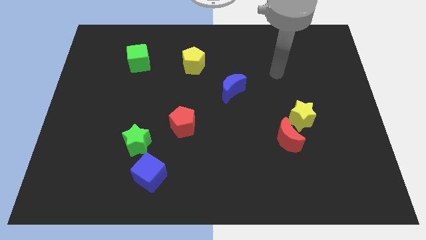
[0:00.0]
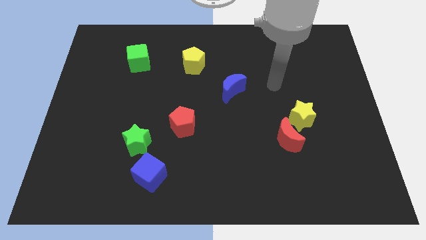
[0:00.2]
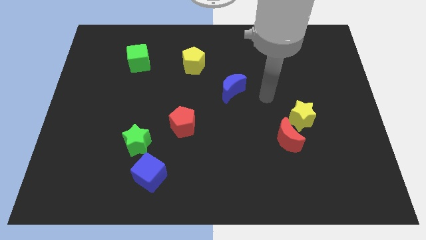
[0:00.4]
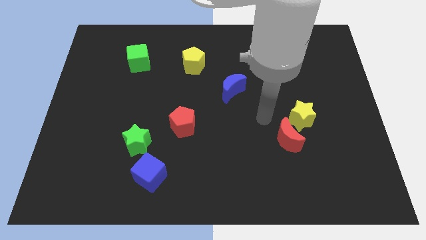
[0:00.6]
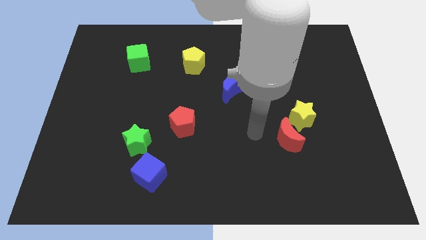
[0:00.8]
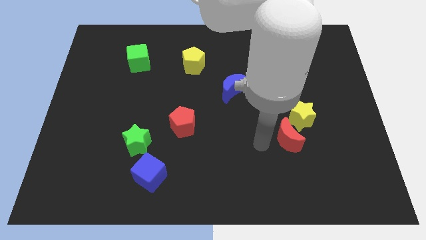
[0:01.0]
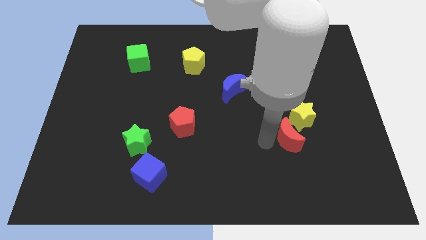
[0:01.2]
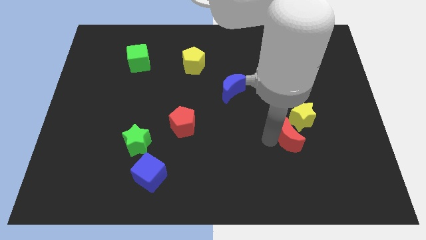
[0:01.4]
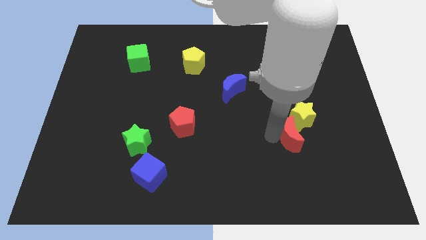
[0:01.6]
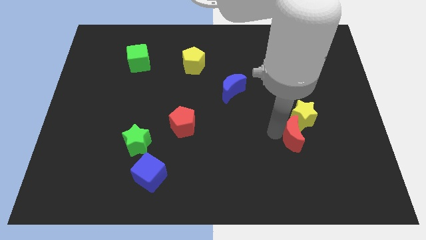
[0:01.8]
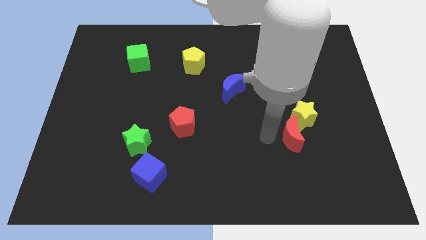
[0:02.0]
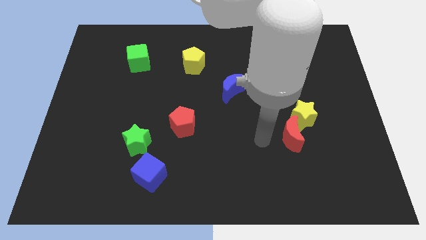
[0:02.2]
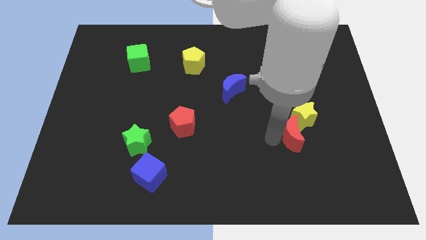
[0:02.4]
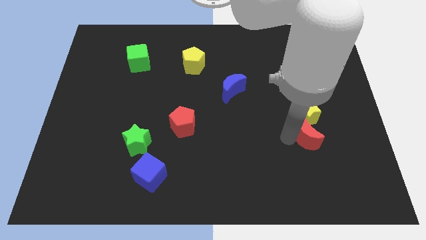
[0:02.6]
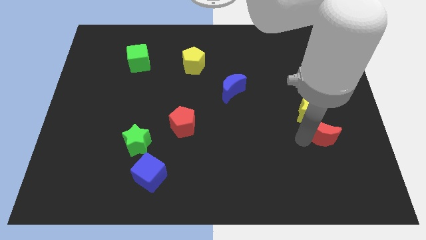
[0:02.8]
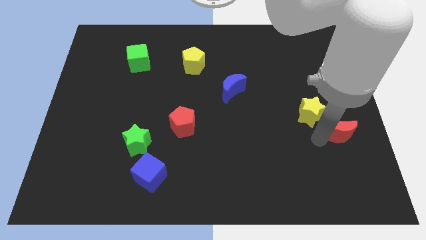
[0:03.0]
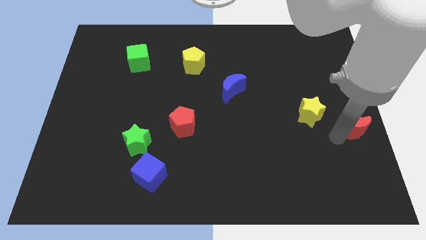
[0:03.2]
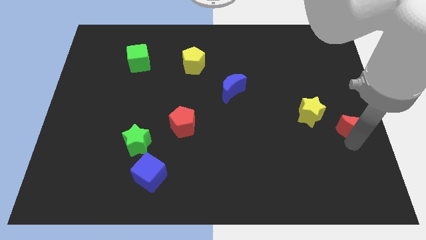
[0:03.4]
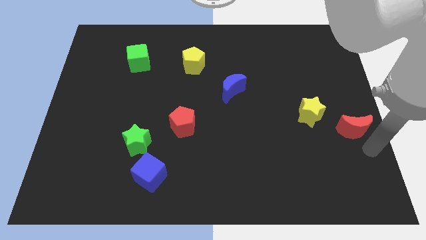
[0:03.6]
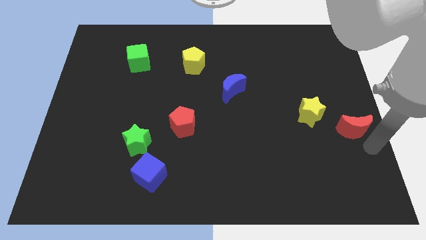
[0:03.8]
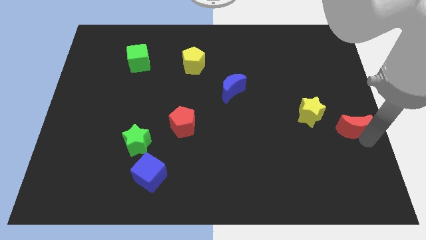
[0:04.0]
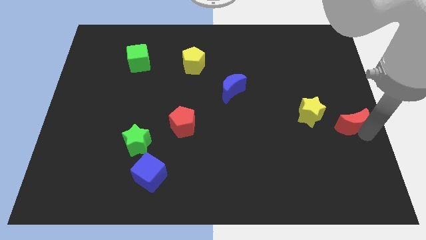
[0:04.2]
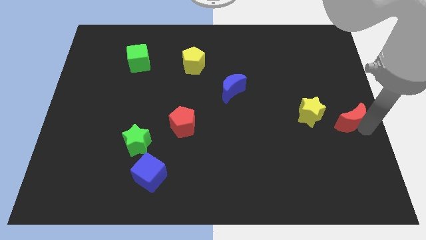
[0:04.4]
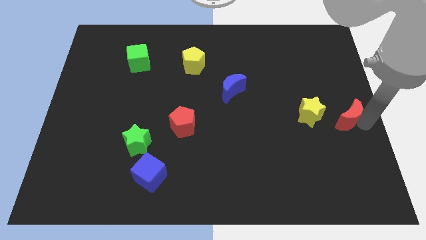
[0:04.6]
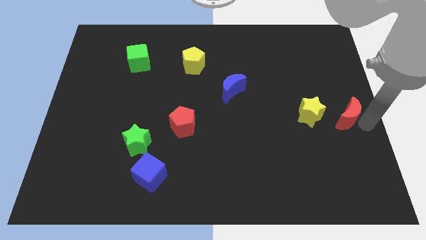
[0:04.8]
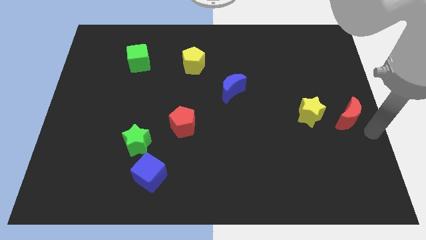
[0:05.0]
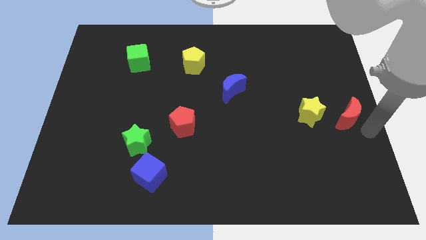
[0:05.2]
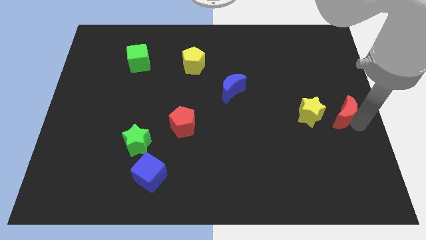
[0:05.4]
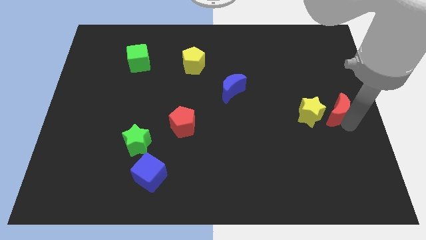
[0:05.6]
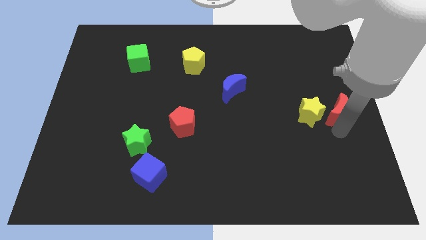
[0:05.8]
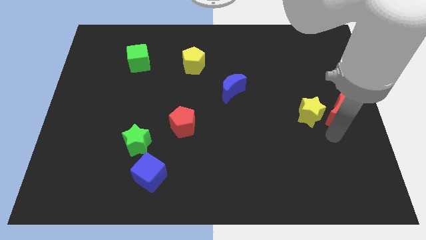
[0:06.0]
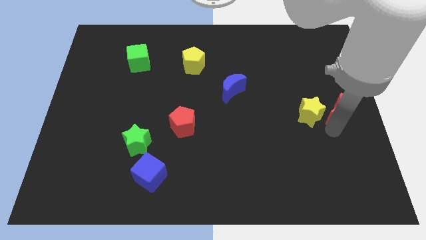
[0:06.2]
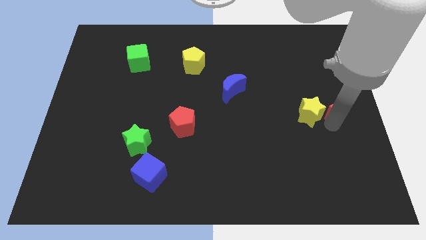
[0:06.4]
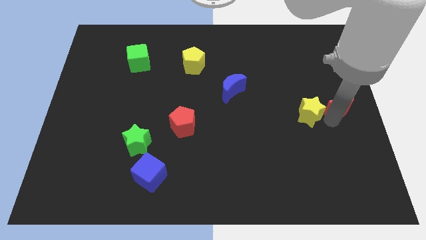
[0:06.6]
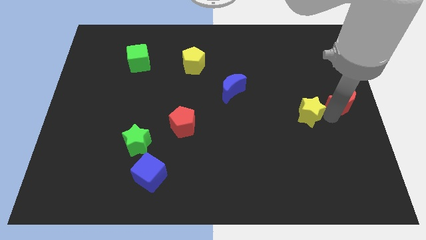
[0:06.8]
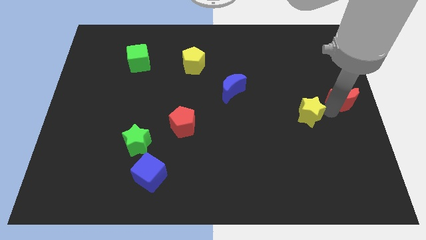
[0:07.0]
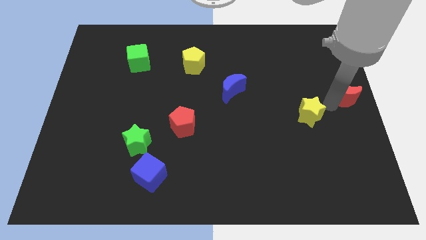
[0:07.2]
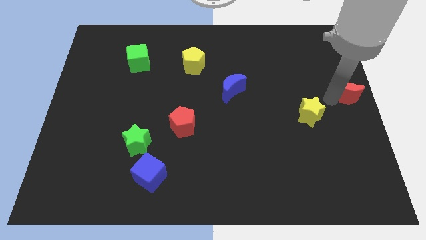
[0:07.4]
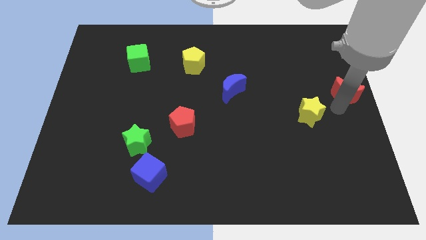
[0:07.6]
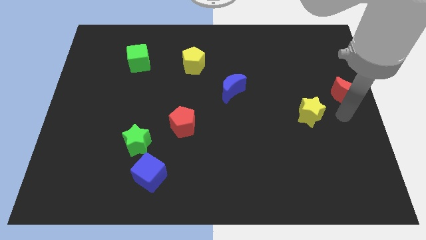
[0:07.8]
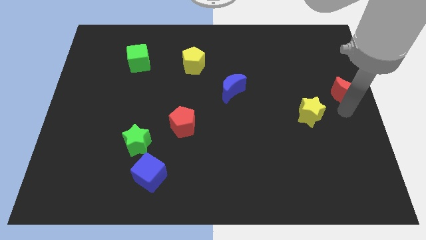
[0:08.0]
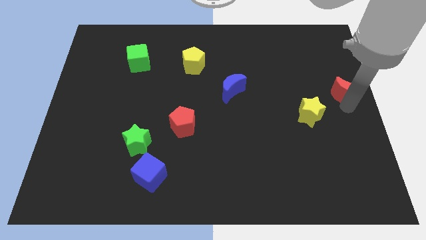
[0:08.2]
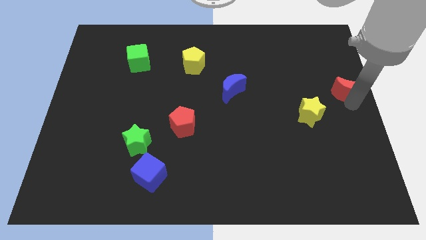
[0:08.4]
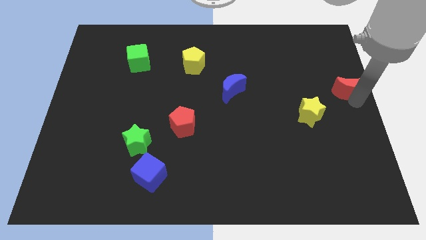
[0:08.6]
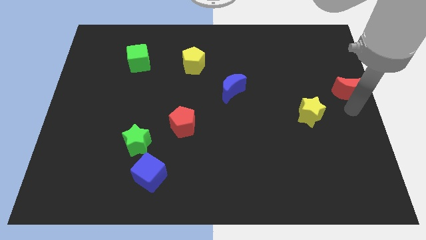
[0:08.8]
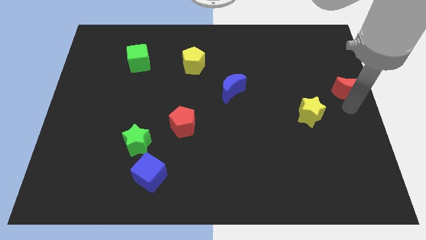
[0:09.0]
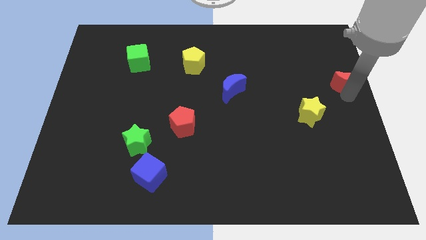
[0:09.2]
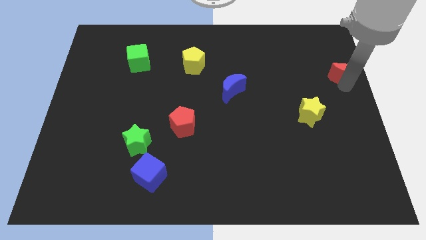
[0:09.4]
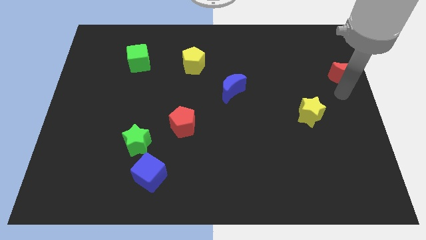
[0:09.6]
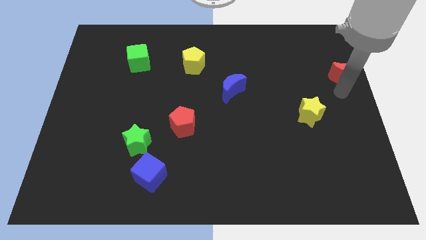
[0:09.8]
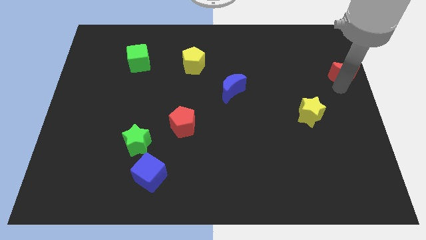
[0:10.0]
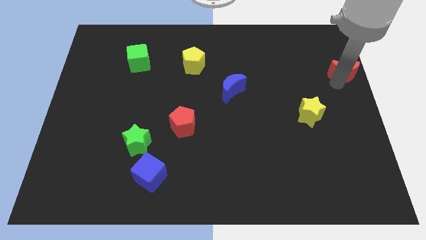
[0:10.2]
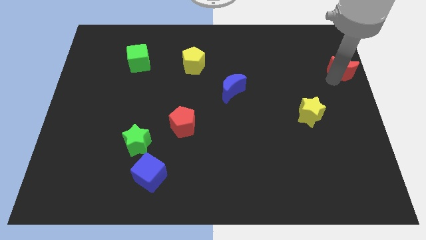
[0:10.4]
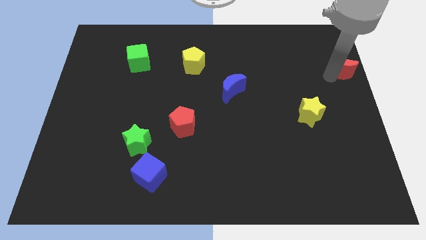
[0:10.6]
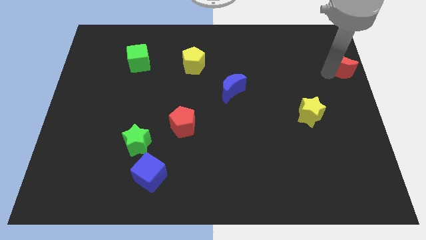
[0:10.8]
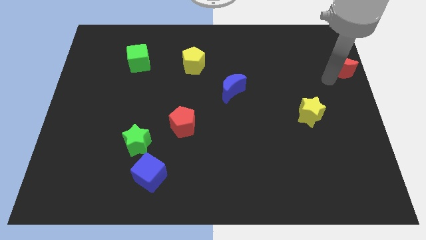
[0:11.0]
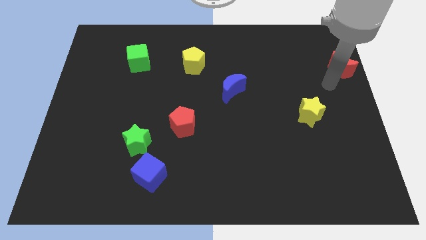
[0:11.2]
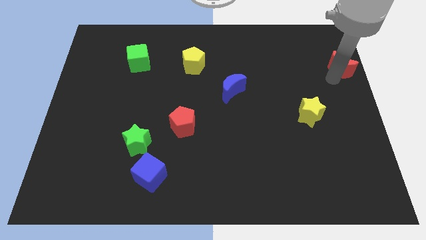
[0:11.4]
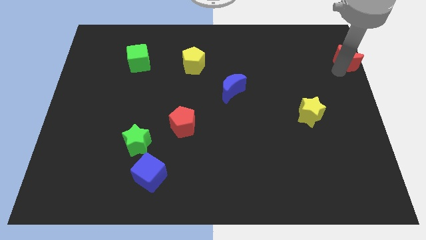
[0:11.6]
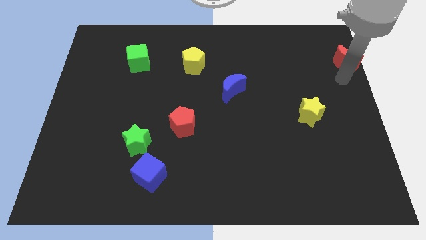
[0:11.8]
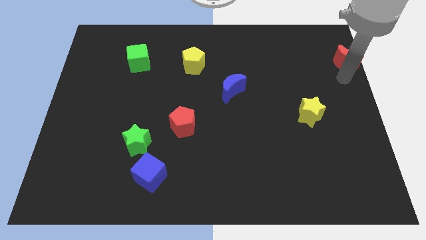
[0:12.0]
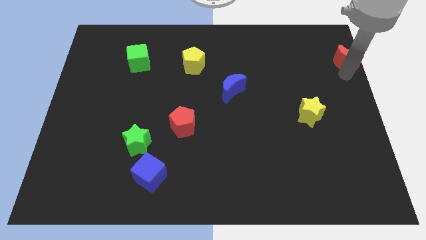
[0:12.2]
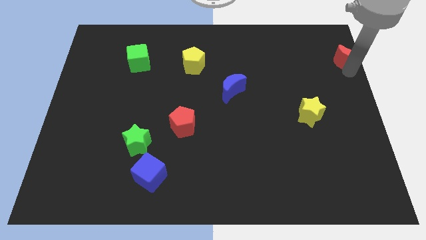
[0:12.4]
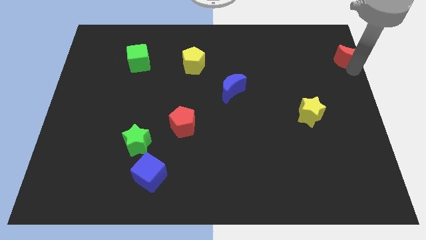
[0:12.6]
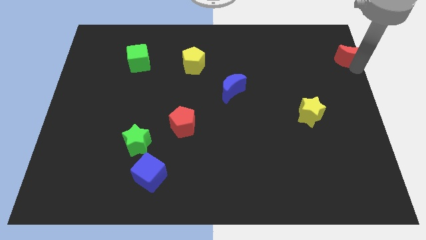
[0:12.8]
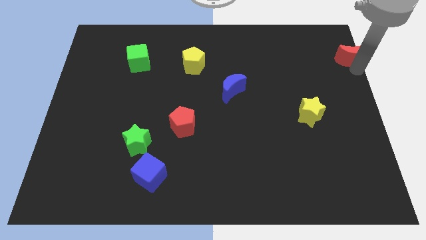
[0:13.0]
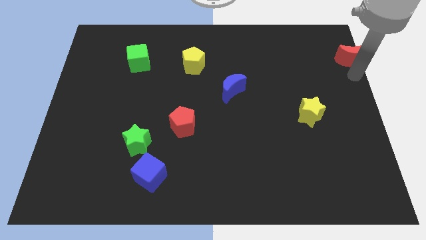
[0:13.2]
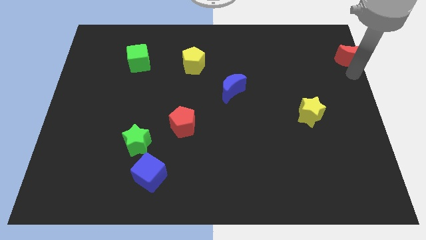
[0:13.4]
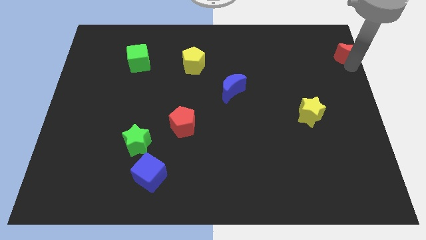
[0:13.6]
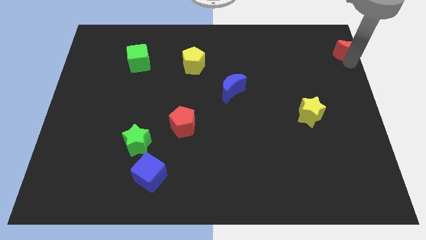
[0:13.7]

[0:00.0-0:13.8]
slide the red moon to the upper right corner
